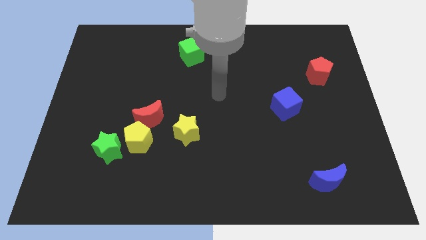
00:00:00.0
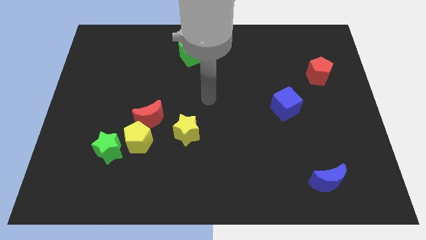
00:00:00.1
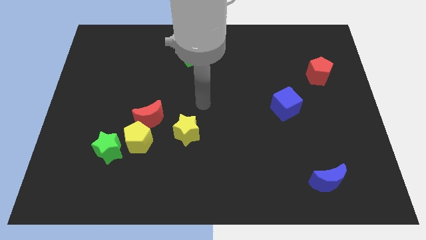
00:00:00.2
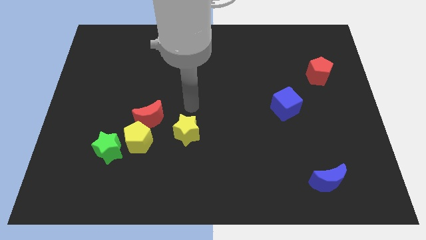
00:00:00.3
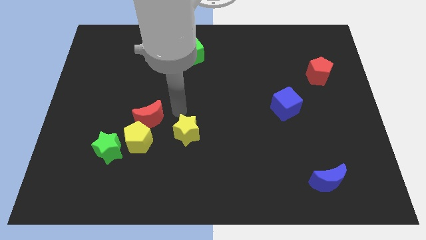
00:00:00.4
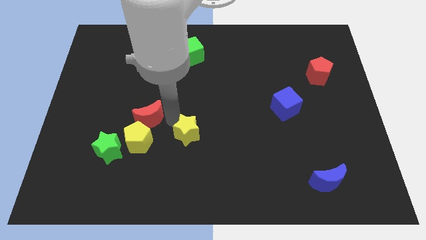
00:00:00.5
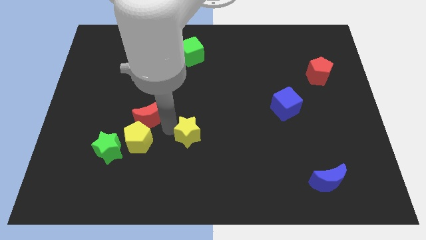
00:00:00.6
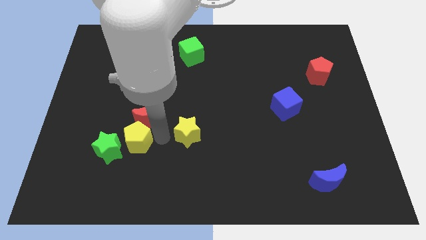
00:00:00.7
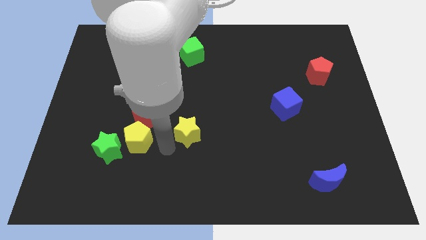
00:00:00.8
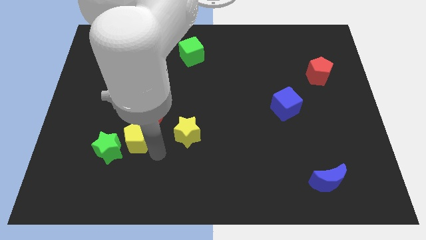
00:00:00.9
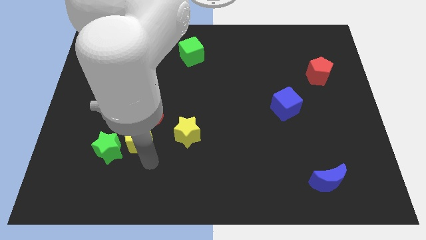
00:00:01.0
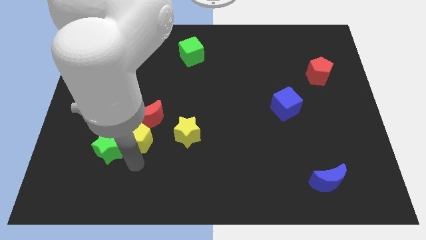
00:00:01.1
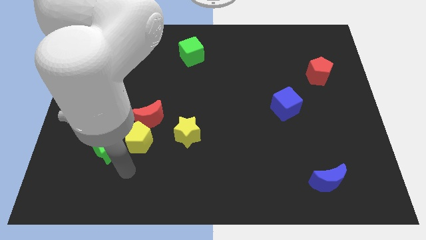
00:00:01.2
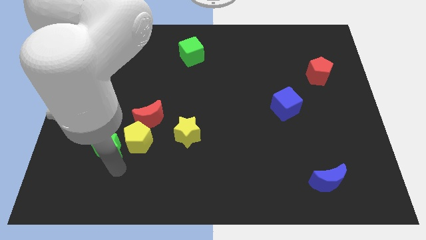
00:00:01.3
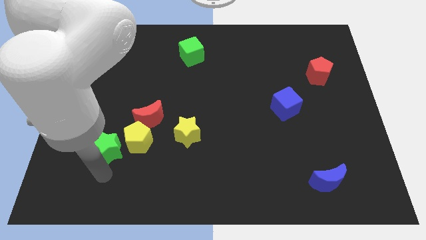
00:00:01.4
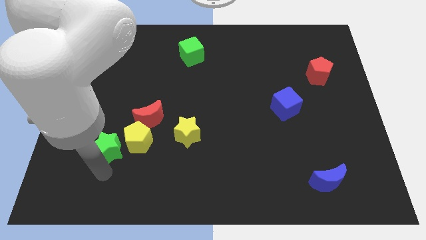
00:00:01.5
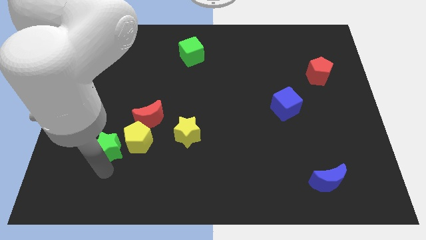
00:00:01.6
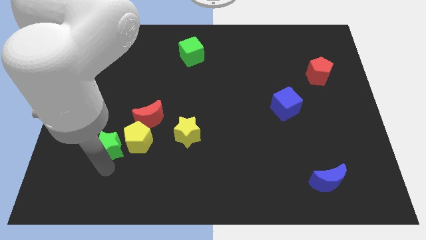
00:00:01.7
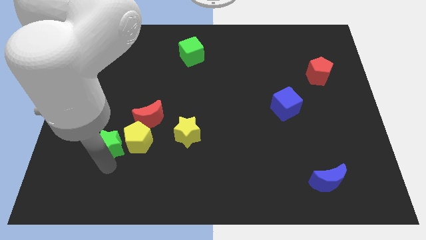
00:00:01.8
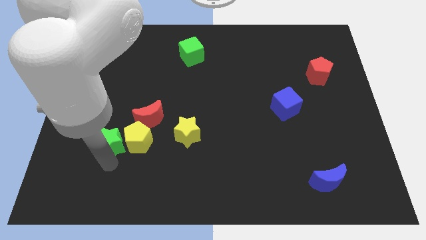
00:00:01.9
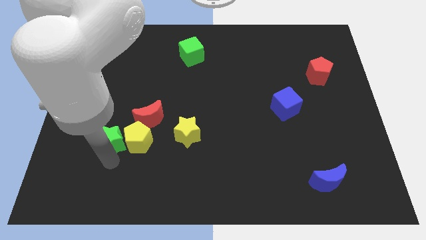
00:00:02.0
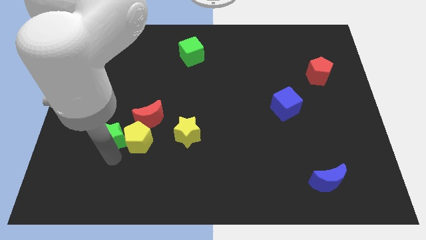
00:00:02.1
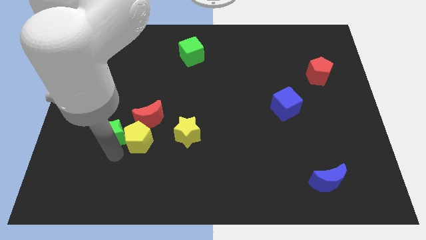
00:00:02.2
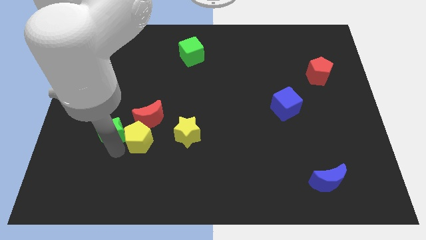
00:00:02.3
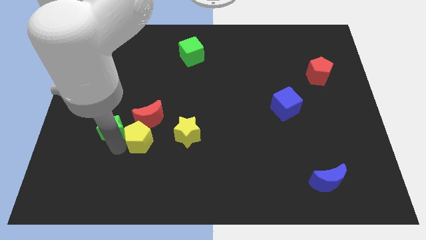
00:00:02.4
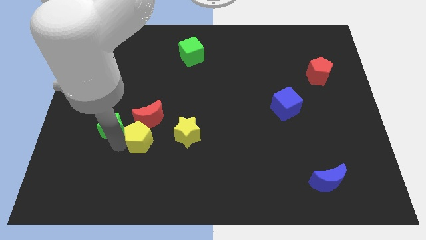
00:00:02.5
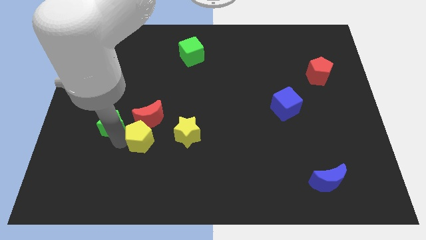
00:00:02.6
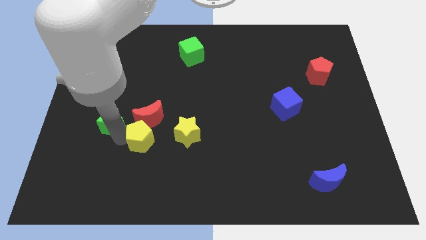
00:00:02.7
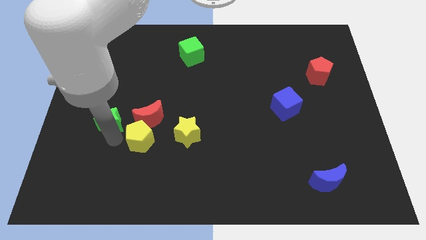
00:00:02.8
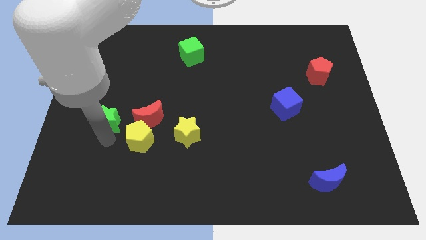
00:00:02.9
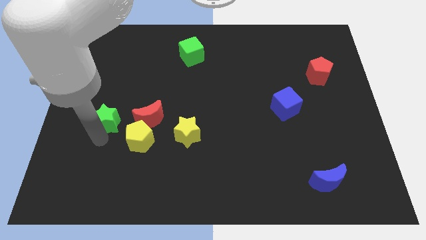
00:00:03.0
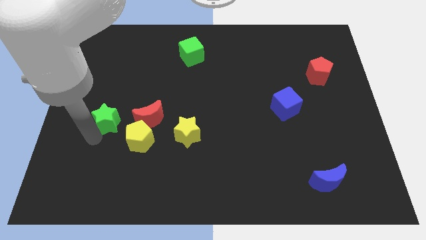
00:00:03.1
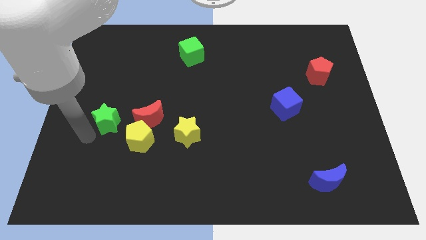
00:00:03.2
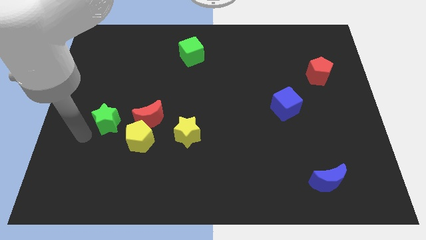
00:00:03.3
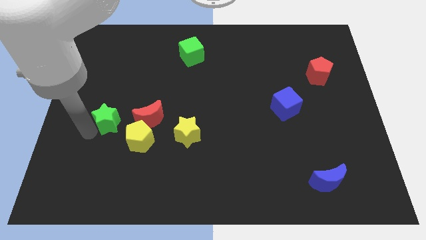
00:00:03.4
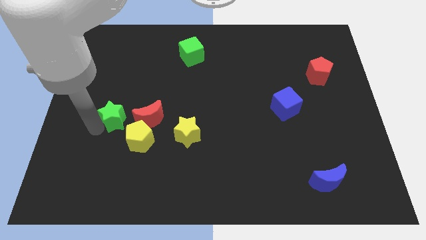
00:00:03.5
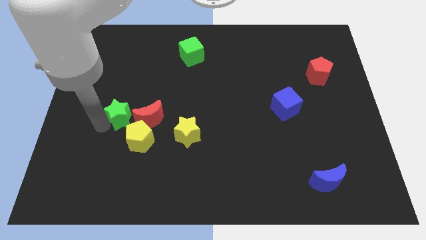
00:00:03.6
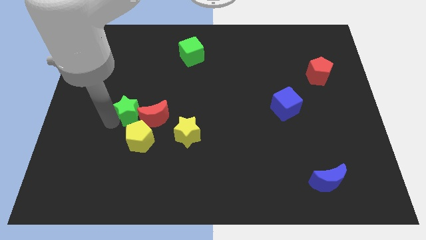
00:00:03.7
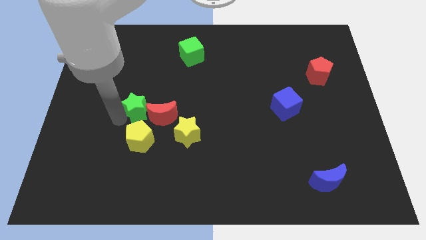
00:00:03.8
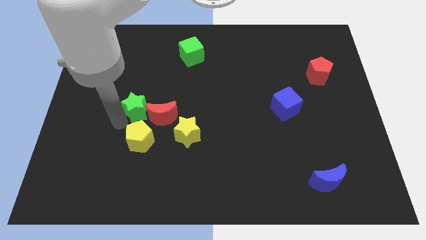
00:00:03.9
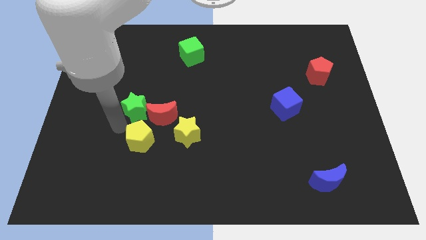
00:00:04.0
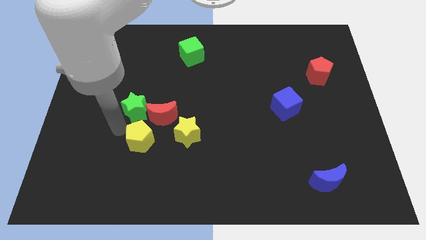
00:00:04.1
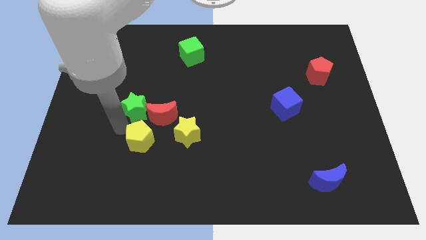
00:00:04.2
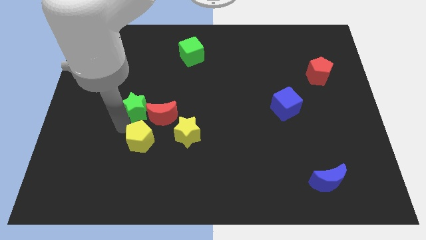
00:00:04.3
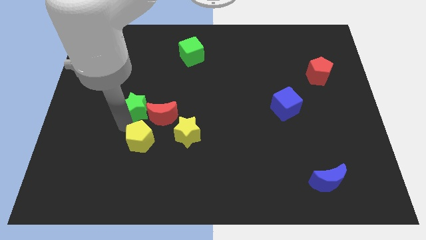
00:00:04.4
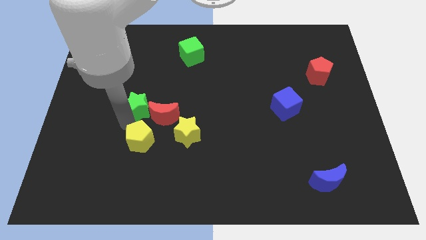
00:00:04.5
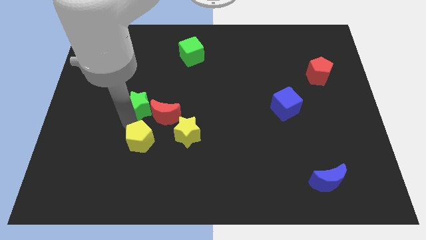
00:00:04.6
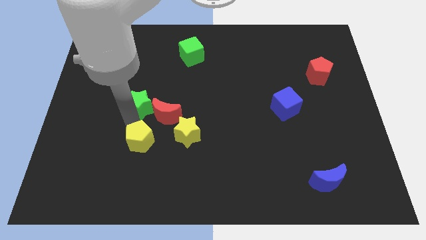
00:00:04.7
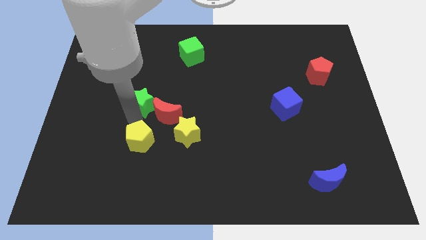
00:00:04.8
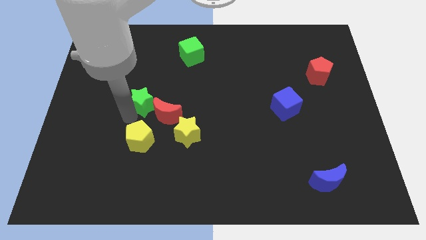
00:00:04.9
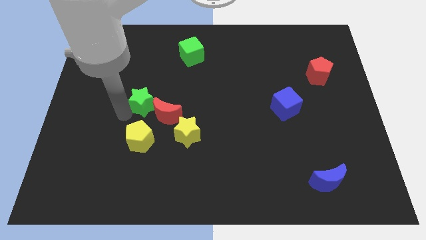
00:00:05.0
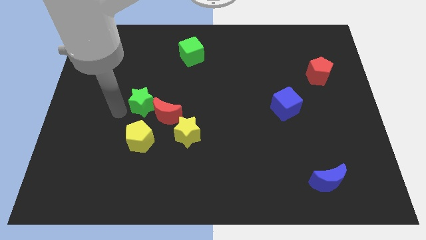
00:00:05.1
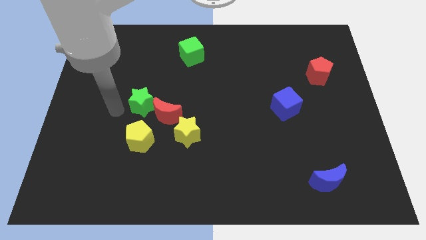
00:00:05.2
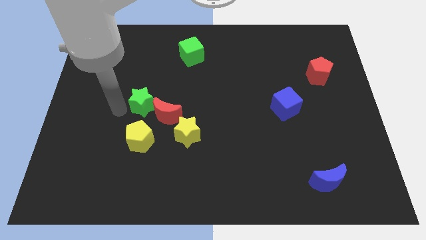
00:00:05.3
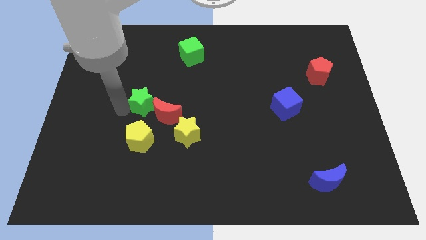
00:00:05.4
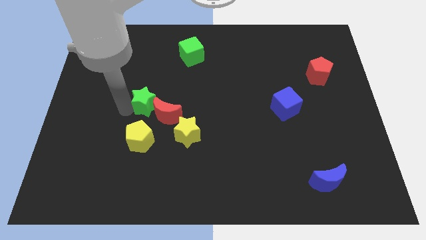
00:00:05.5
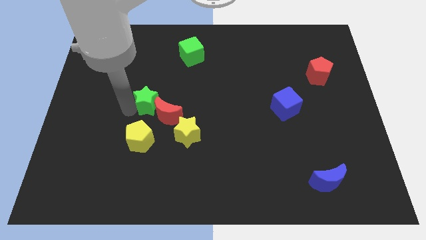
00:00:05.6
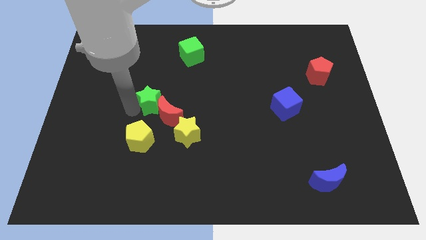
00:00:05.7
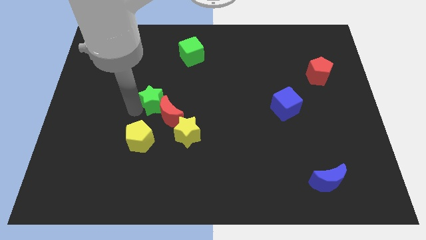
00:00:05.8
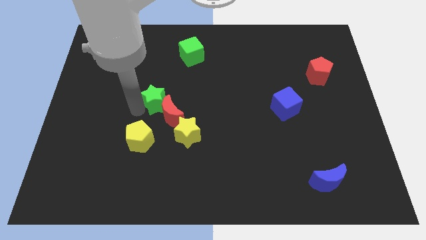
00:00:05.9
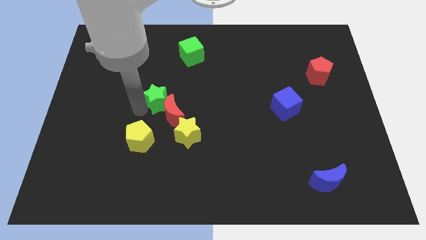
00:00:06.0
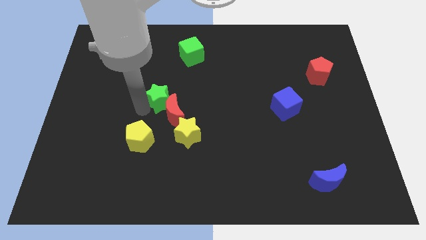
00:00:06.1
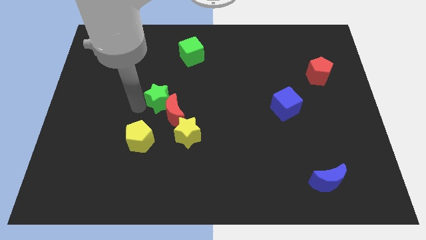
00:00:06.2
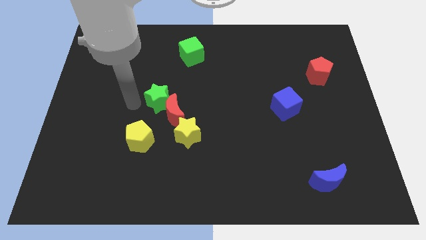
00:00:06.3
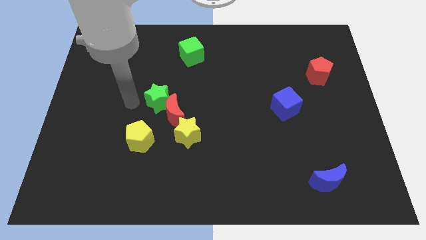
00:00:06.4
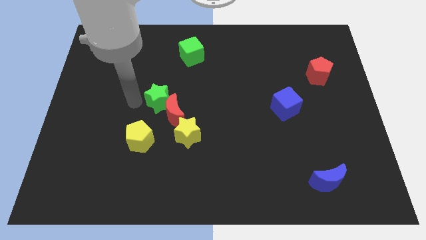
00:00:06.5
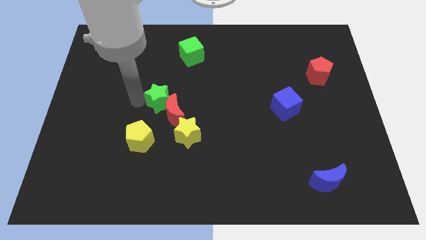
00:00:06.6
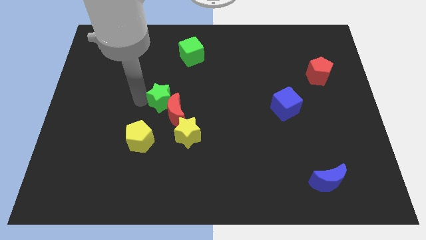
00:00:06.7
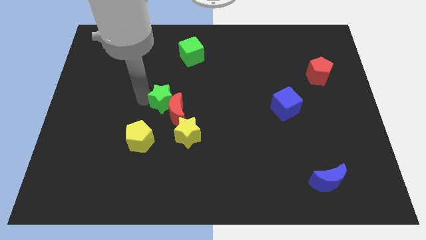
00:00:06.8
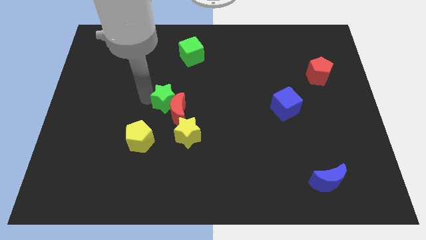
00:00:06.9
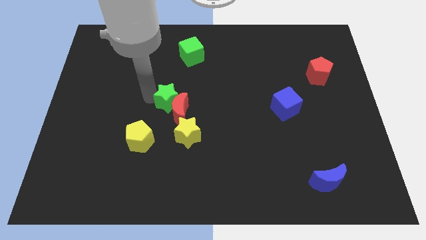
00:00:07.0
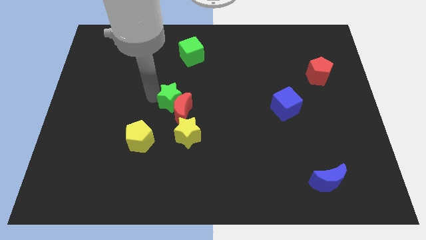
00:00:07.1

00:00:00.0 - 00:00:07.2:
move the green star above the yellow star
